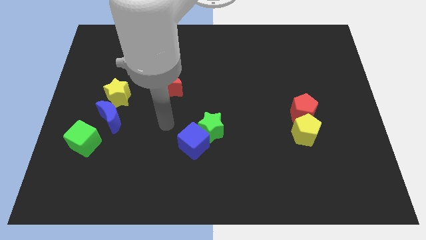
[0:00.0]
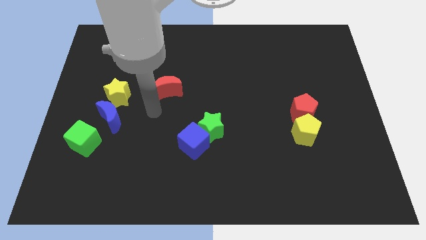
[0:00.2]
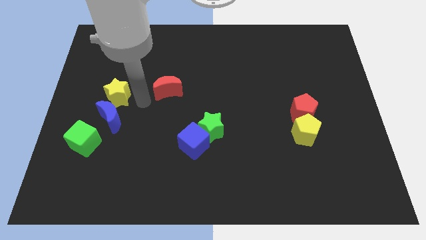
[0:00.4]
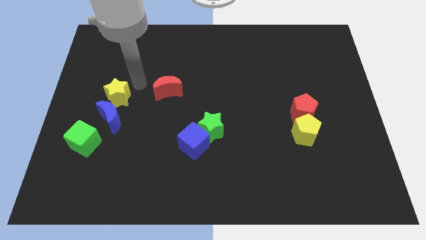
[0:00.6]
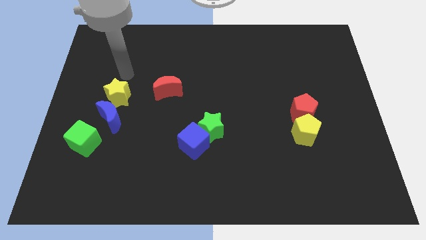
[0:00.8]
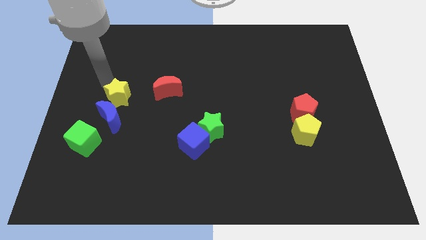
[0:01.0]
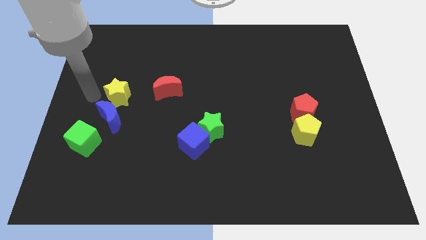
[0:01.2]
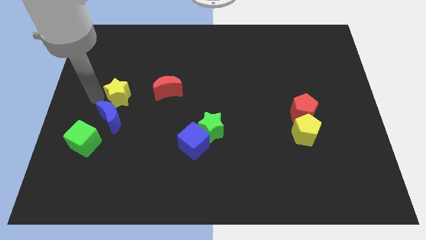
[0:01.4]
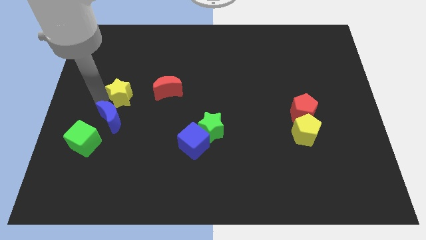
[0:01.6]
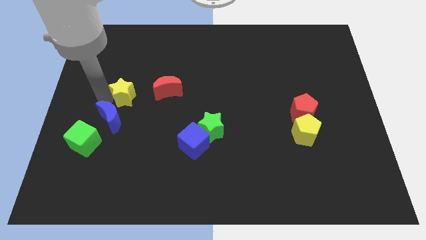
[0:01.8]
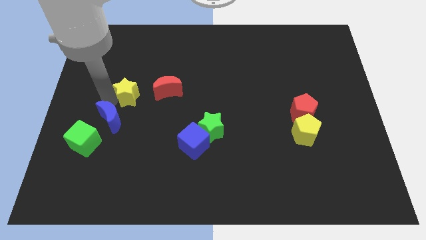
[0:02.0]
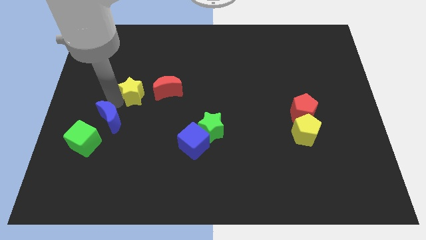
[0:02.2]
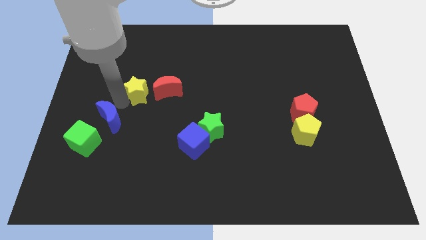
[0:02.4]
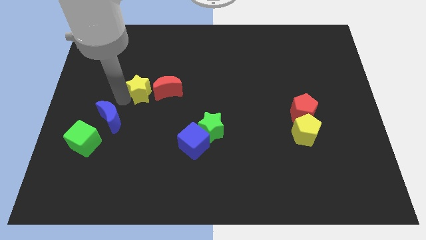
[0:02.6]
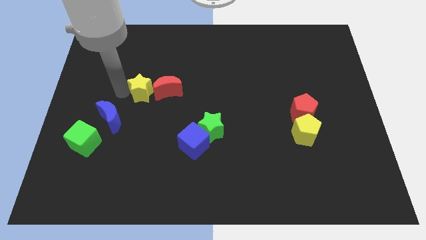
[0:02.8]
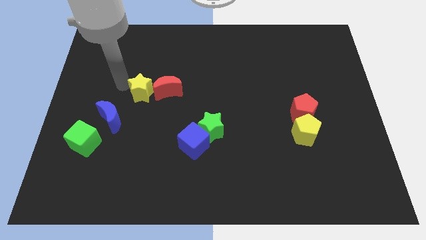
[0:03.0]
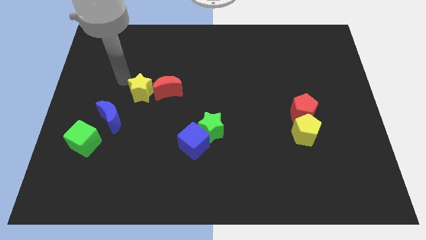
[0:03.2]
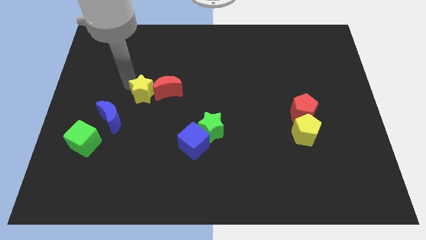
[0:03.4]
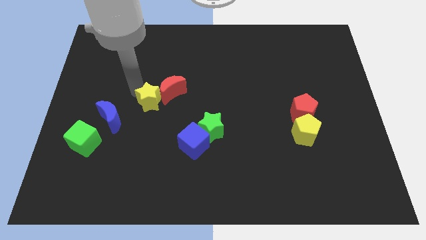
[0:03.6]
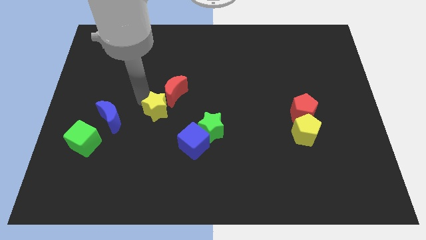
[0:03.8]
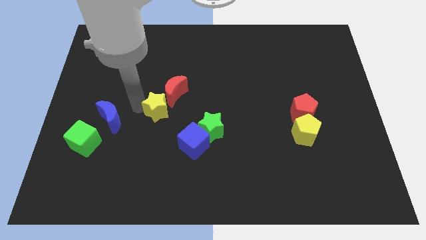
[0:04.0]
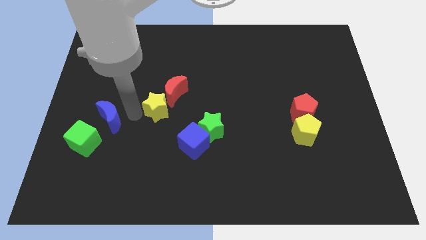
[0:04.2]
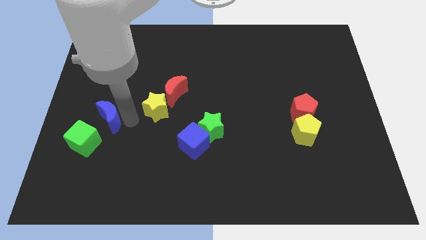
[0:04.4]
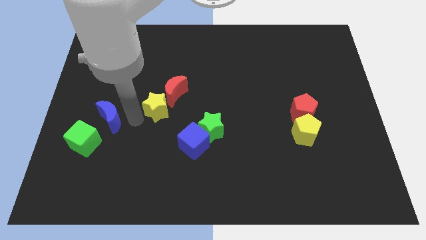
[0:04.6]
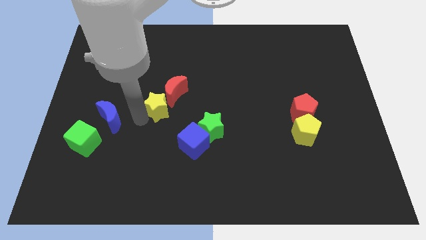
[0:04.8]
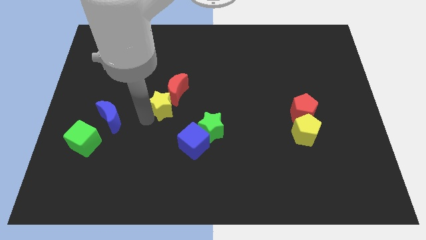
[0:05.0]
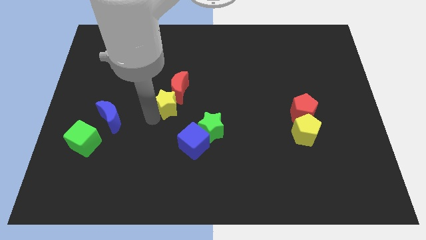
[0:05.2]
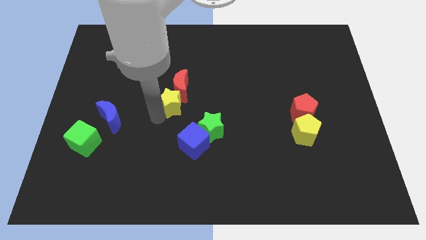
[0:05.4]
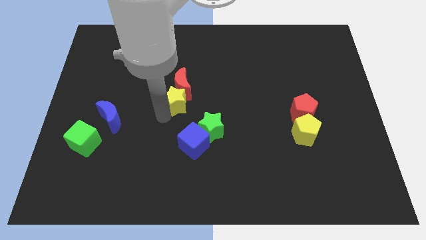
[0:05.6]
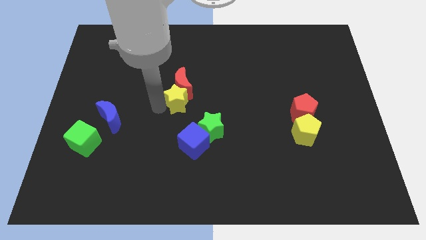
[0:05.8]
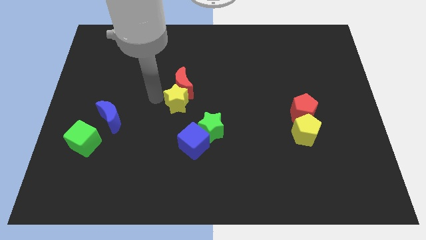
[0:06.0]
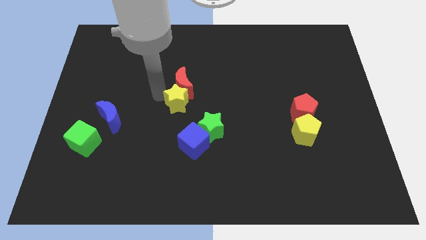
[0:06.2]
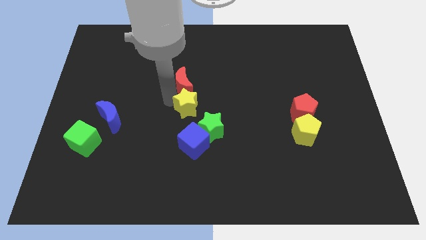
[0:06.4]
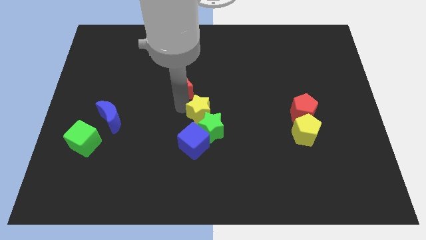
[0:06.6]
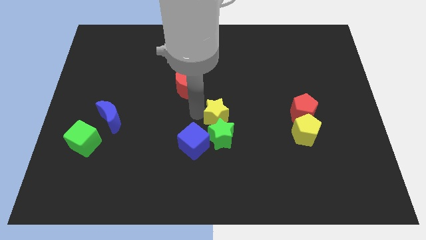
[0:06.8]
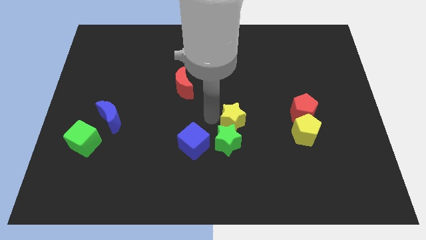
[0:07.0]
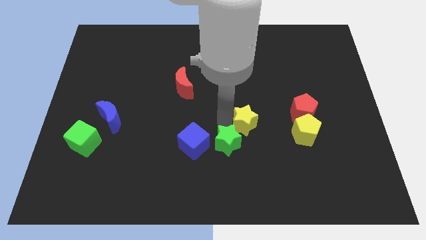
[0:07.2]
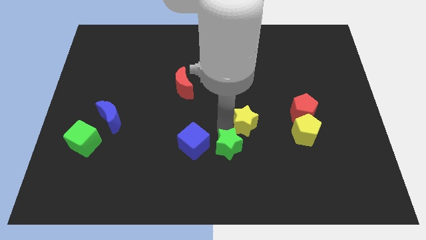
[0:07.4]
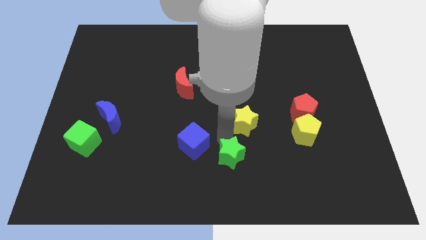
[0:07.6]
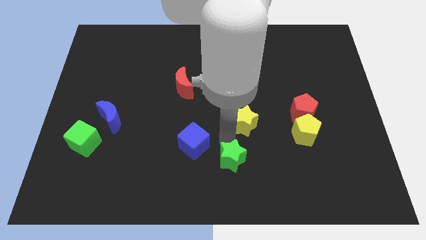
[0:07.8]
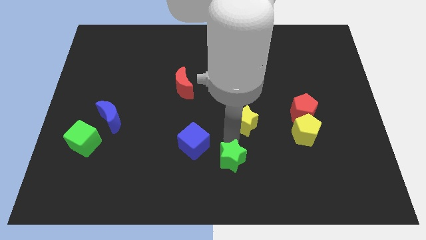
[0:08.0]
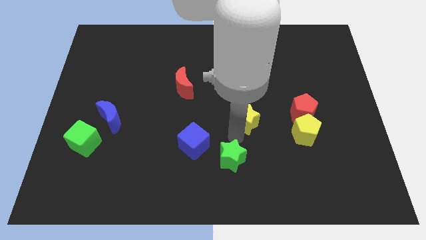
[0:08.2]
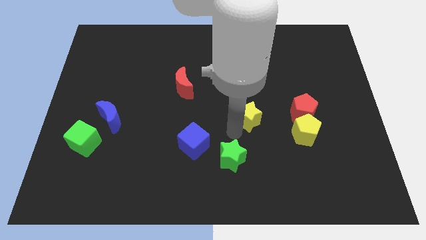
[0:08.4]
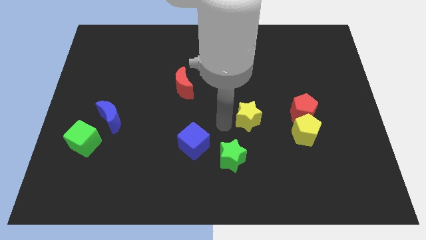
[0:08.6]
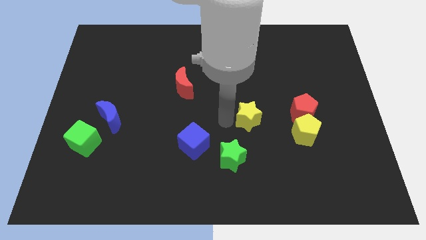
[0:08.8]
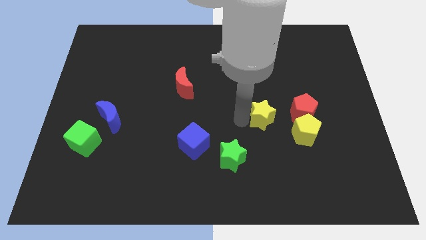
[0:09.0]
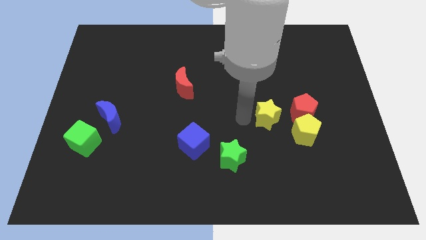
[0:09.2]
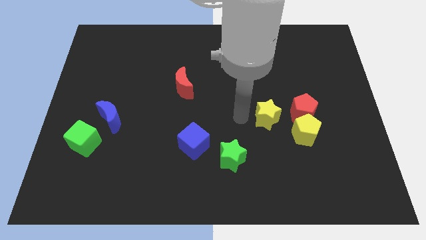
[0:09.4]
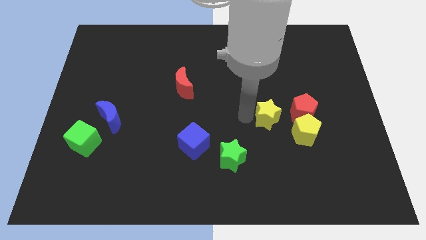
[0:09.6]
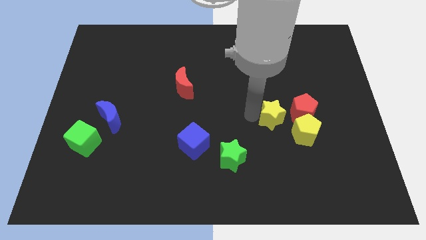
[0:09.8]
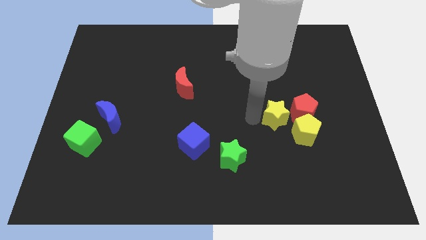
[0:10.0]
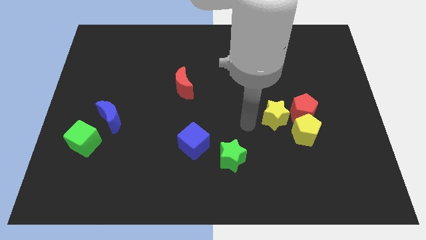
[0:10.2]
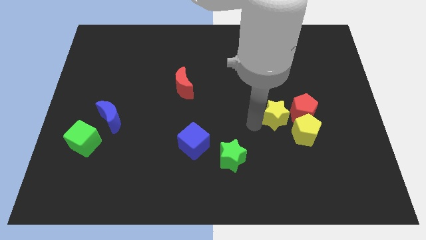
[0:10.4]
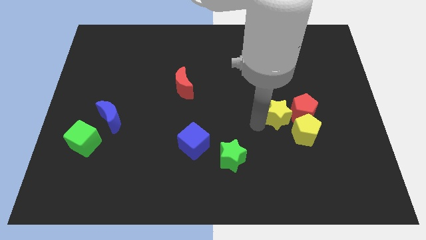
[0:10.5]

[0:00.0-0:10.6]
move the yellow star to the red pentagon

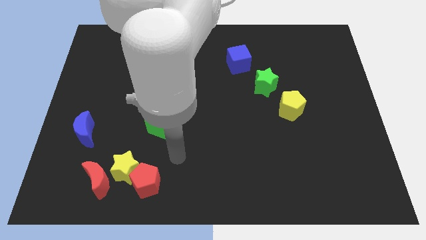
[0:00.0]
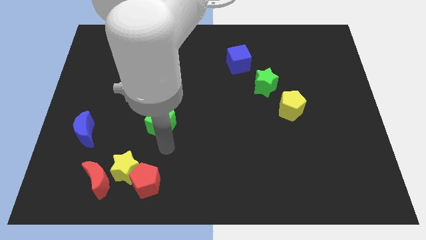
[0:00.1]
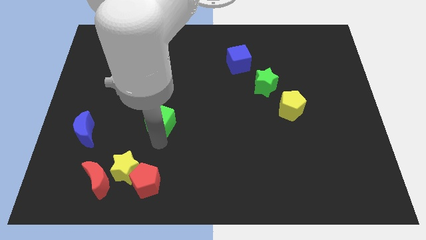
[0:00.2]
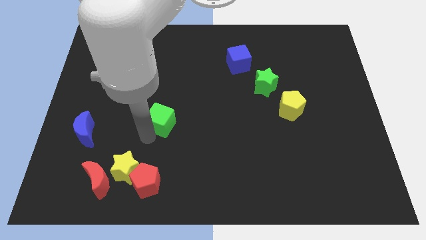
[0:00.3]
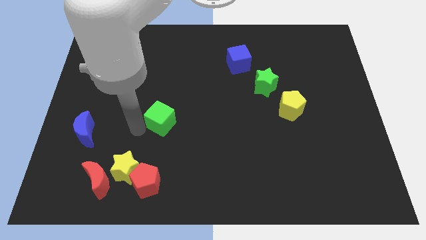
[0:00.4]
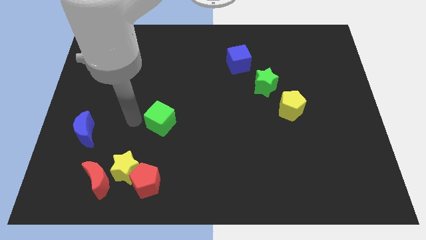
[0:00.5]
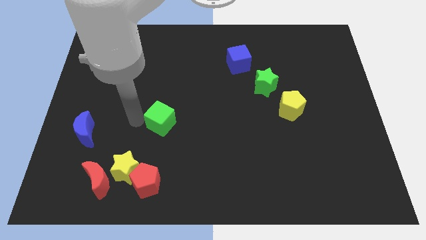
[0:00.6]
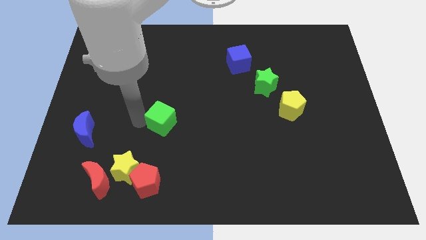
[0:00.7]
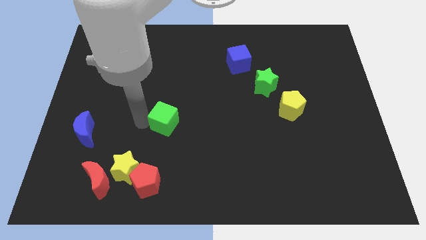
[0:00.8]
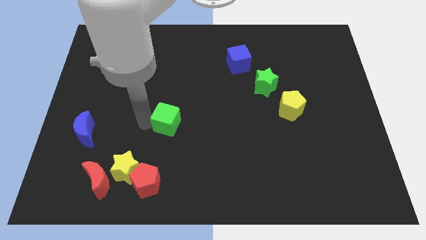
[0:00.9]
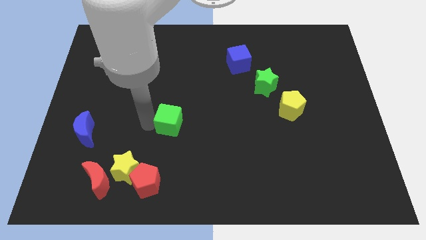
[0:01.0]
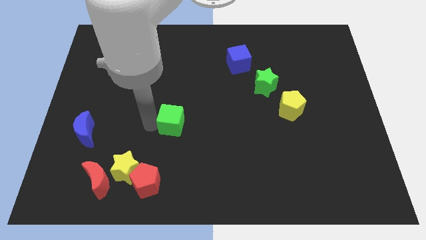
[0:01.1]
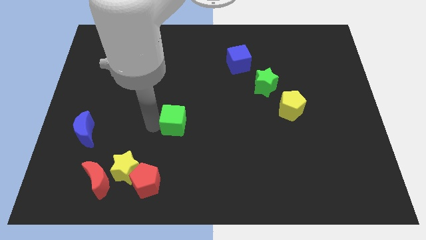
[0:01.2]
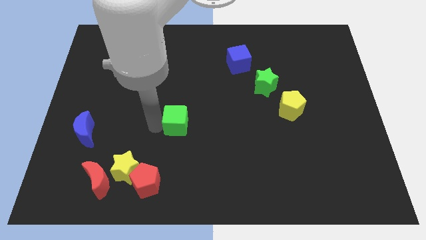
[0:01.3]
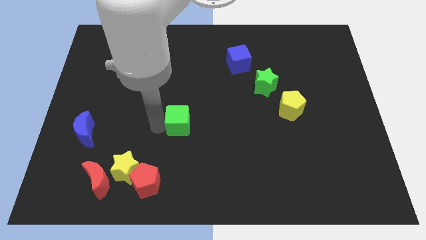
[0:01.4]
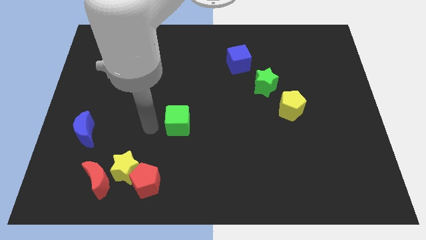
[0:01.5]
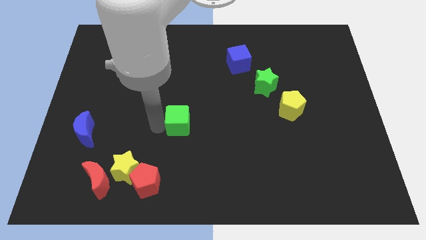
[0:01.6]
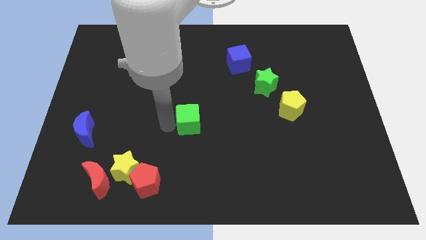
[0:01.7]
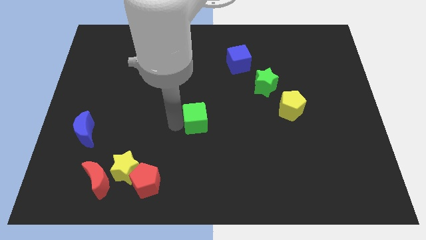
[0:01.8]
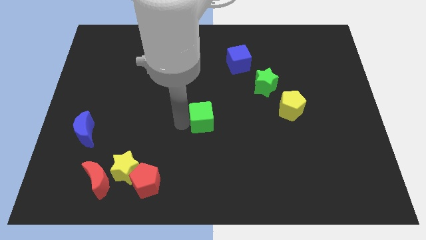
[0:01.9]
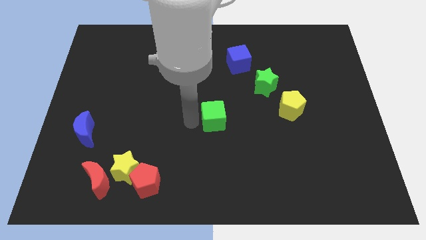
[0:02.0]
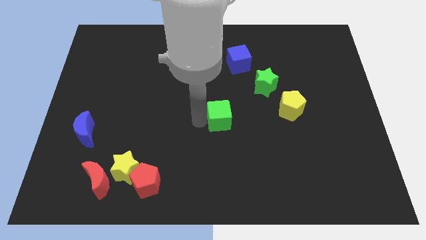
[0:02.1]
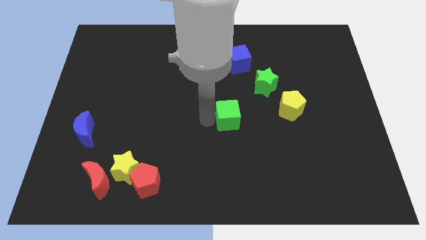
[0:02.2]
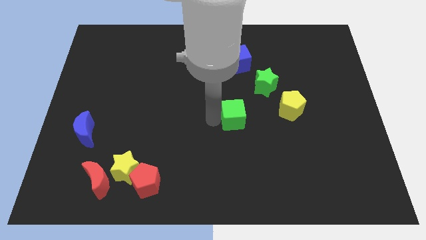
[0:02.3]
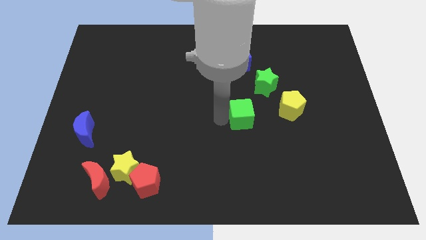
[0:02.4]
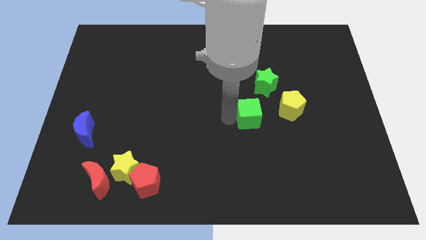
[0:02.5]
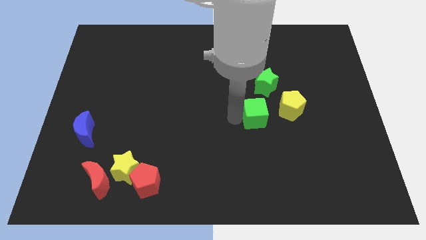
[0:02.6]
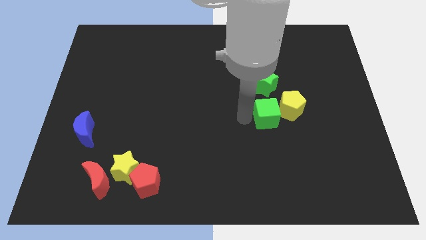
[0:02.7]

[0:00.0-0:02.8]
put the green cube next to the yellow pentagon
